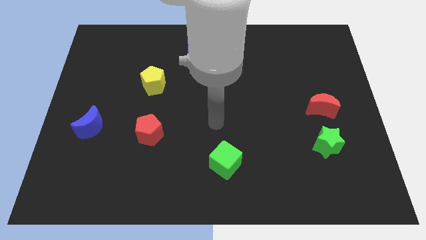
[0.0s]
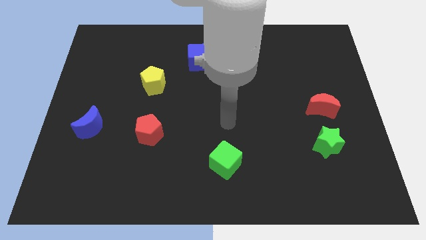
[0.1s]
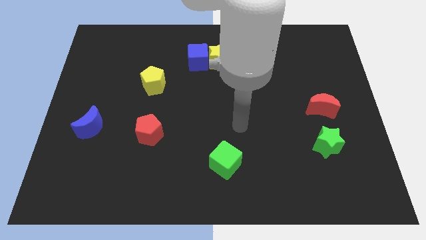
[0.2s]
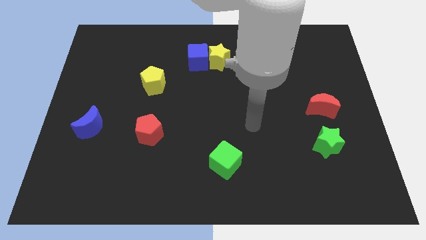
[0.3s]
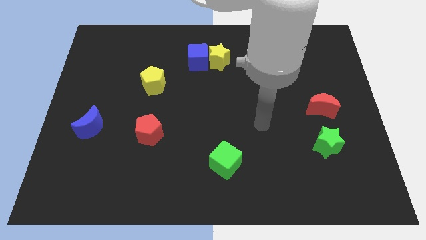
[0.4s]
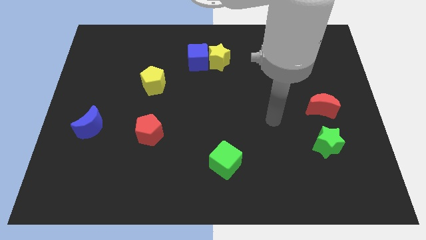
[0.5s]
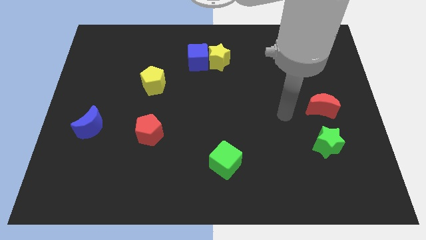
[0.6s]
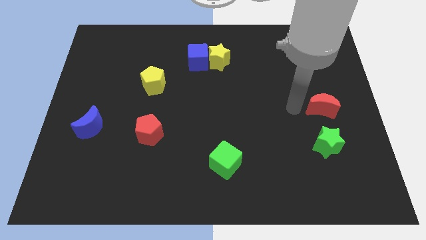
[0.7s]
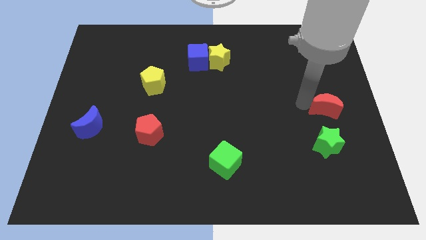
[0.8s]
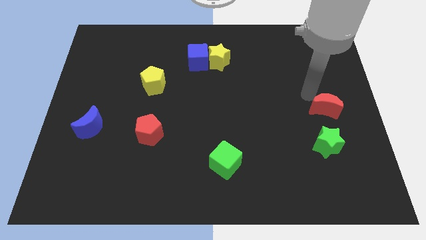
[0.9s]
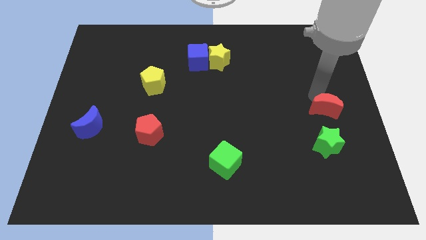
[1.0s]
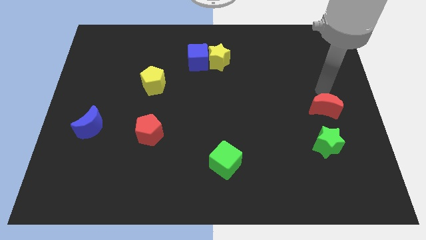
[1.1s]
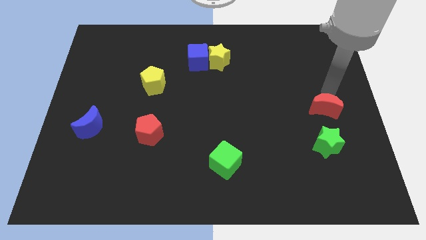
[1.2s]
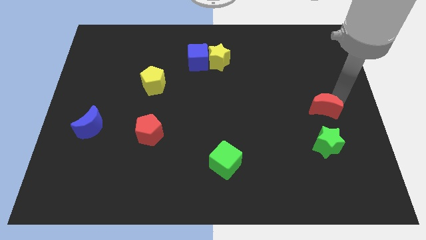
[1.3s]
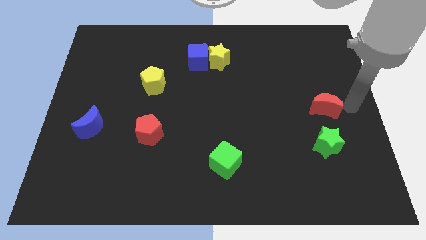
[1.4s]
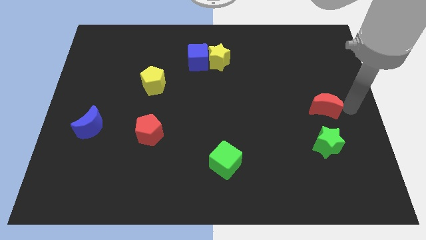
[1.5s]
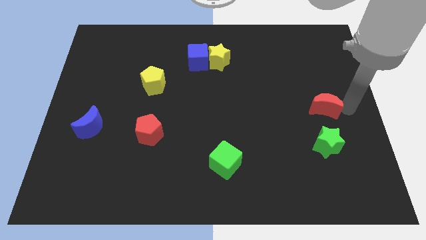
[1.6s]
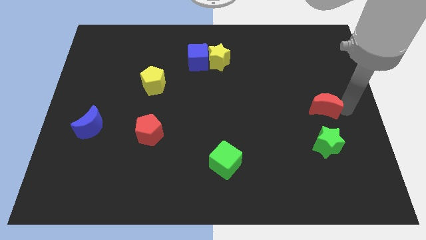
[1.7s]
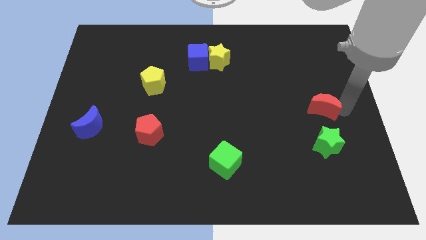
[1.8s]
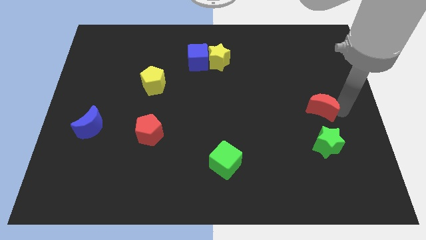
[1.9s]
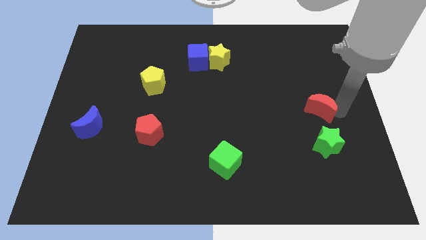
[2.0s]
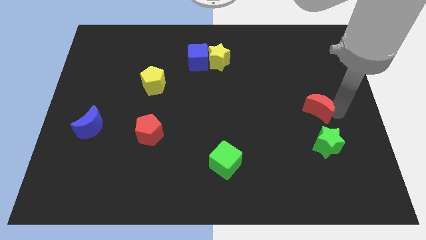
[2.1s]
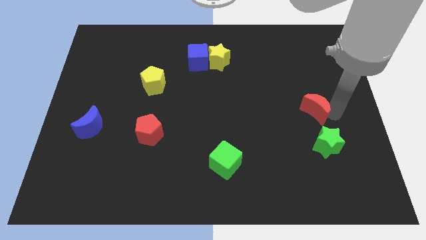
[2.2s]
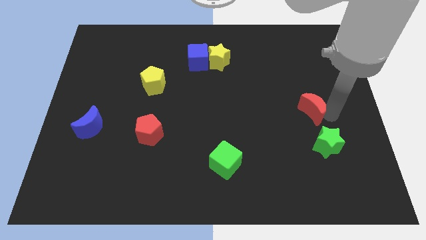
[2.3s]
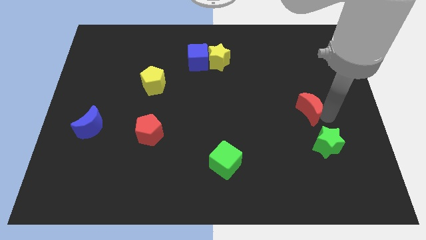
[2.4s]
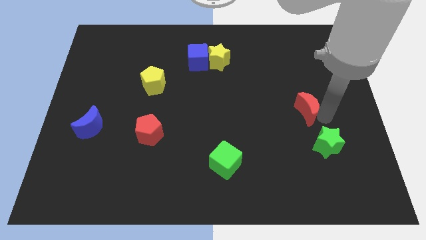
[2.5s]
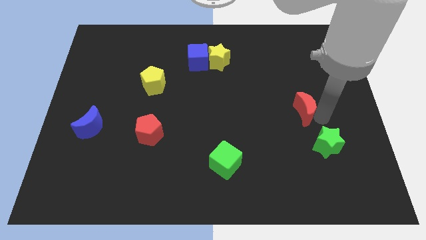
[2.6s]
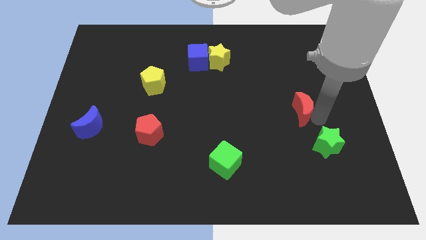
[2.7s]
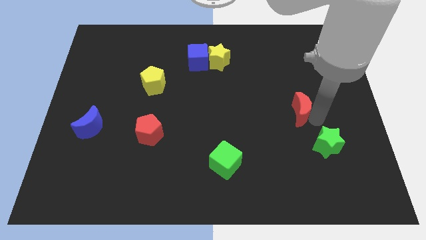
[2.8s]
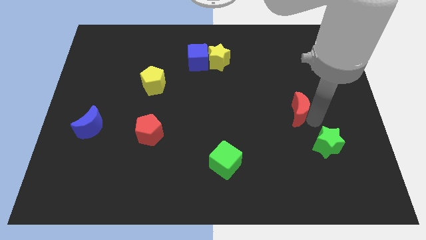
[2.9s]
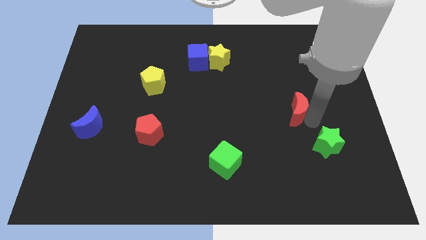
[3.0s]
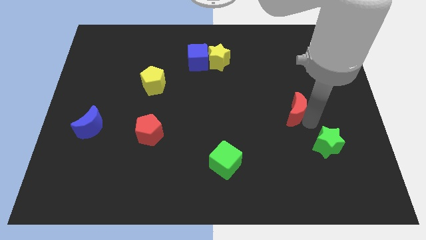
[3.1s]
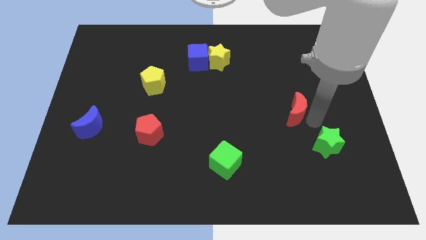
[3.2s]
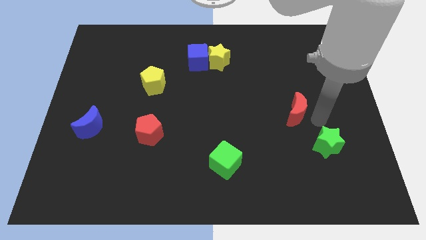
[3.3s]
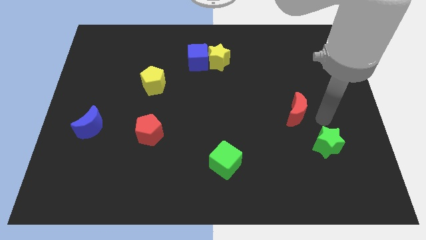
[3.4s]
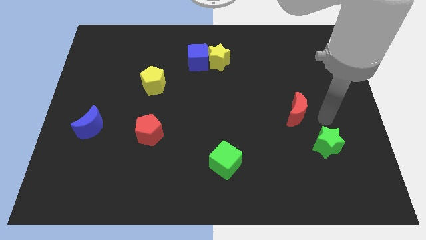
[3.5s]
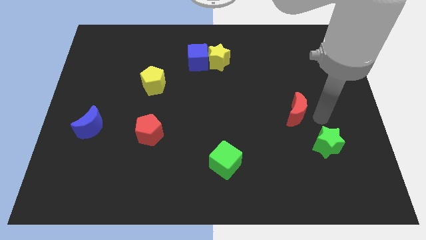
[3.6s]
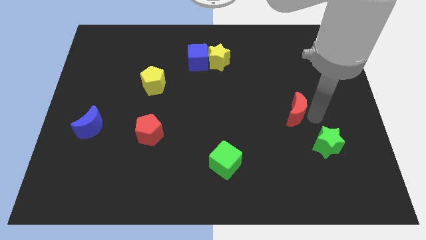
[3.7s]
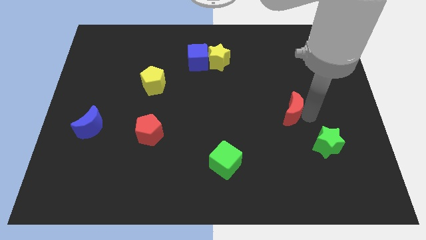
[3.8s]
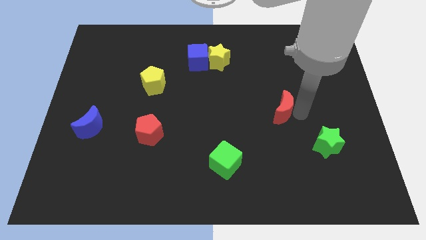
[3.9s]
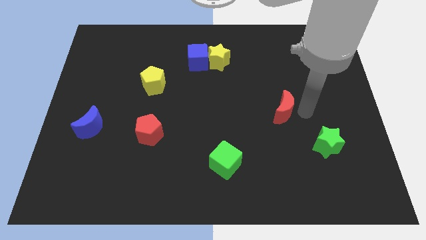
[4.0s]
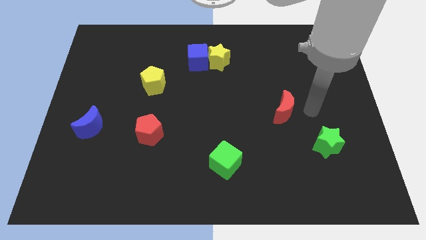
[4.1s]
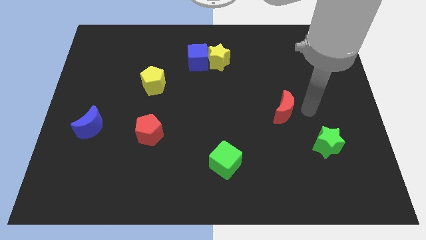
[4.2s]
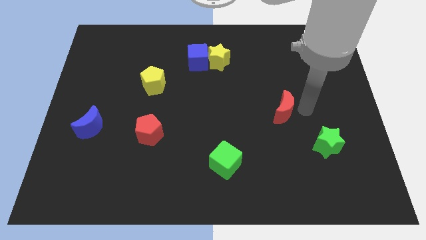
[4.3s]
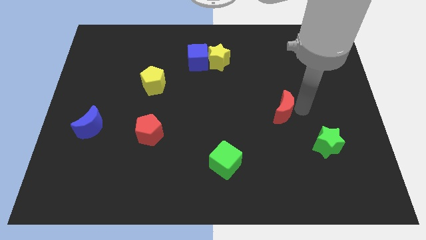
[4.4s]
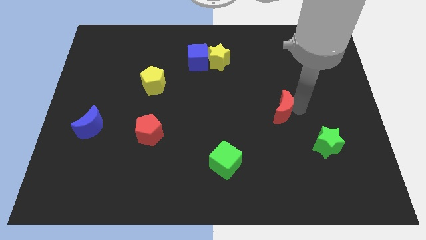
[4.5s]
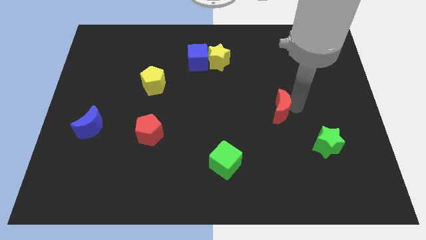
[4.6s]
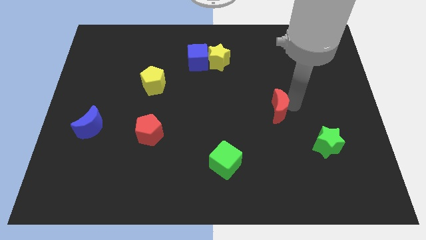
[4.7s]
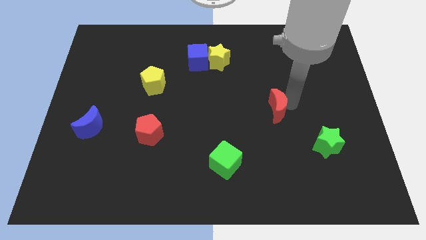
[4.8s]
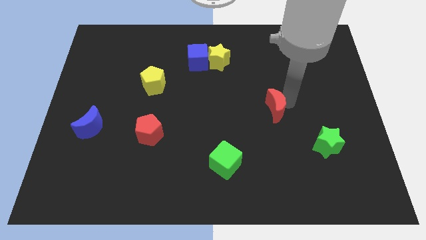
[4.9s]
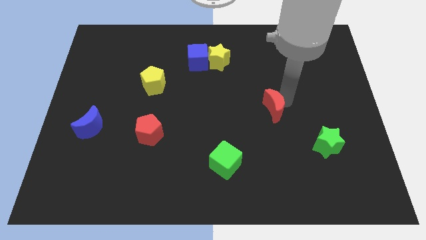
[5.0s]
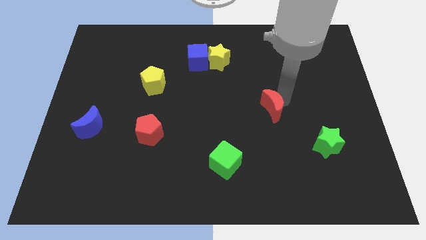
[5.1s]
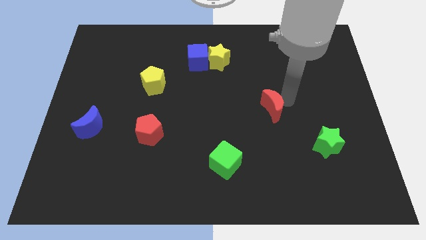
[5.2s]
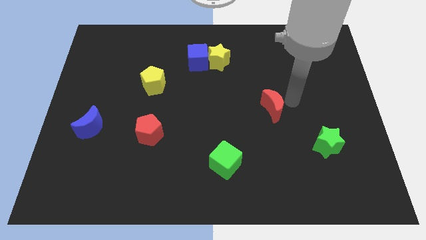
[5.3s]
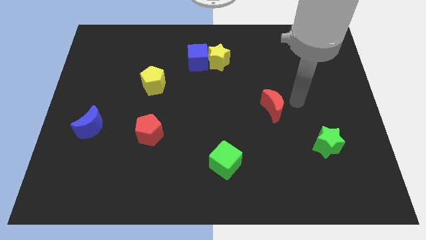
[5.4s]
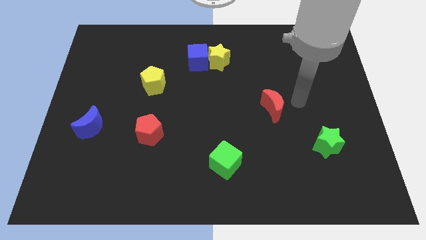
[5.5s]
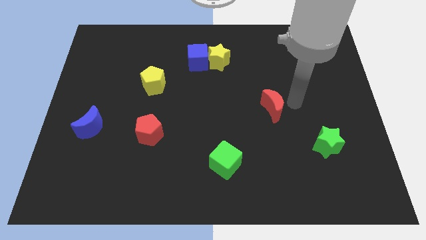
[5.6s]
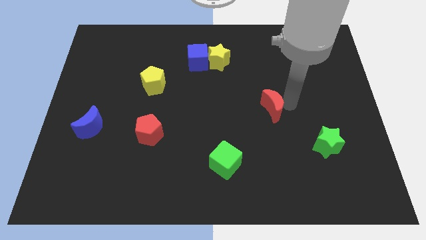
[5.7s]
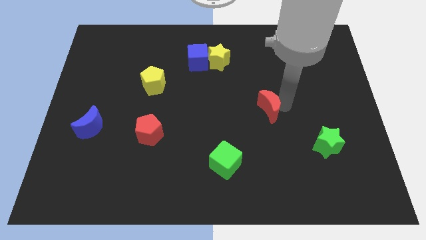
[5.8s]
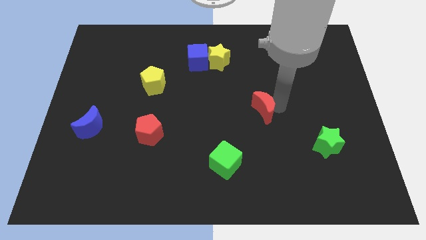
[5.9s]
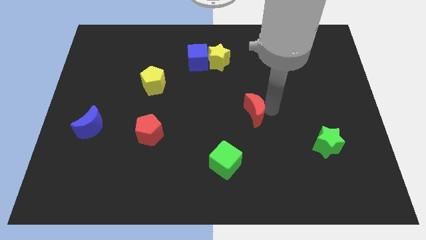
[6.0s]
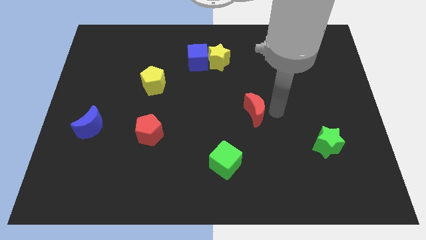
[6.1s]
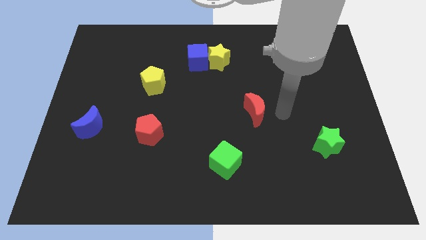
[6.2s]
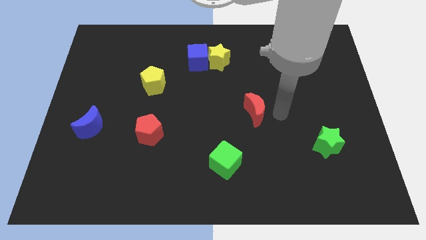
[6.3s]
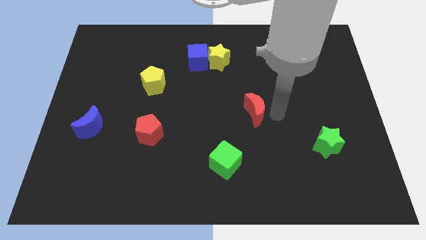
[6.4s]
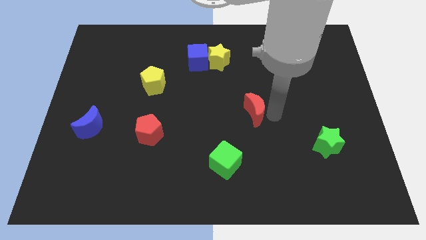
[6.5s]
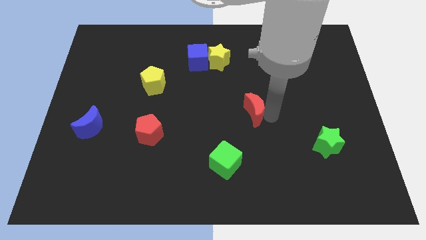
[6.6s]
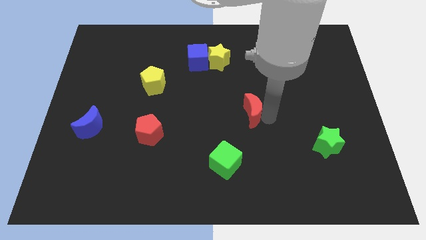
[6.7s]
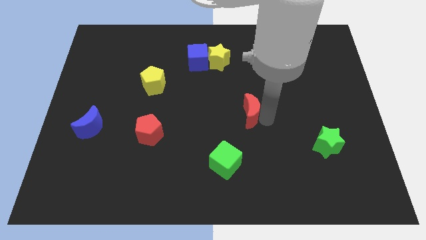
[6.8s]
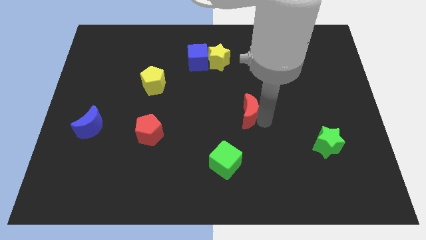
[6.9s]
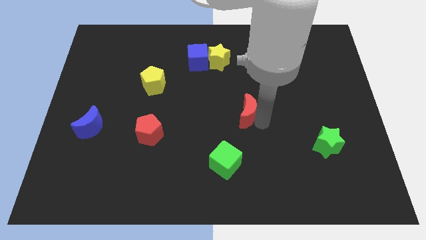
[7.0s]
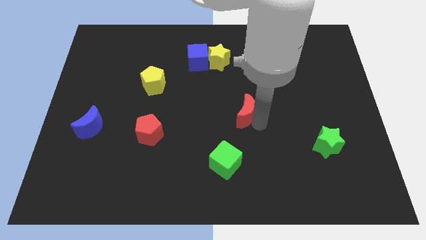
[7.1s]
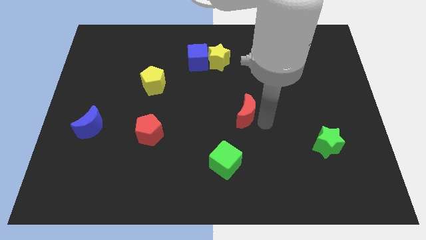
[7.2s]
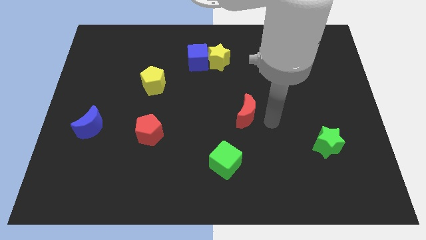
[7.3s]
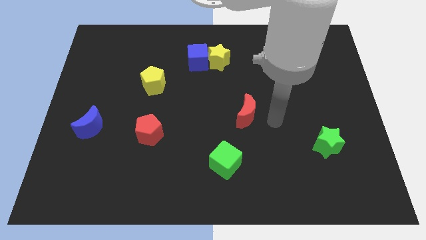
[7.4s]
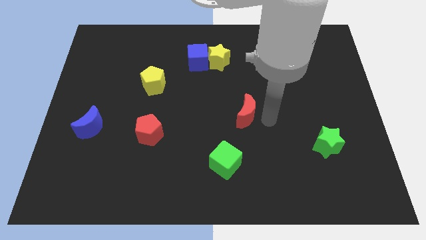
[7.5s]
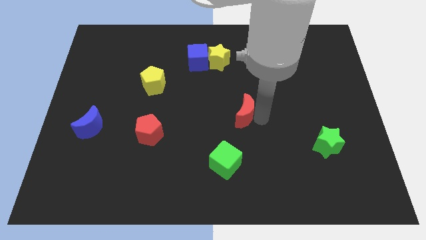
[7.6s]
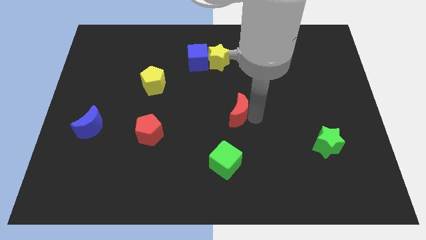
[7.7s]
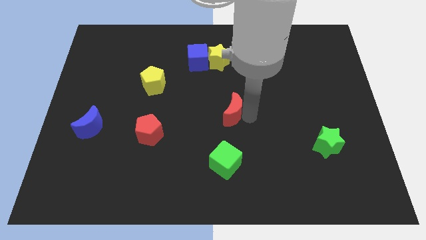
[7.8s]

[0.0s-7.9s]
slide the red moon left
